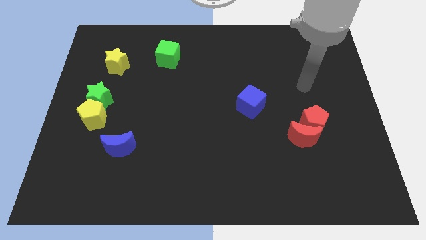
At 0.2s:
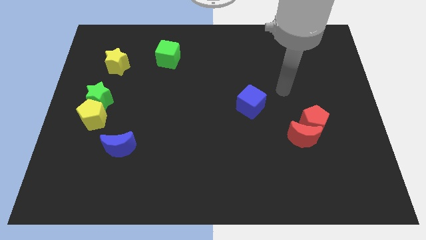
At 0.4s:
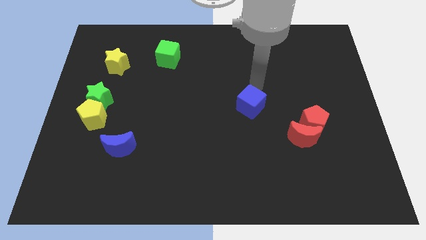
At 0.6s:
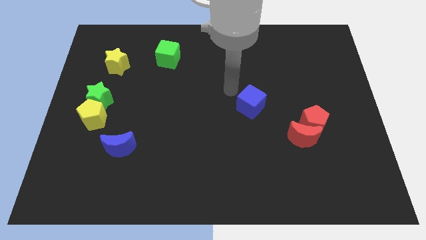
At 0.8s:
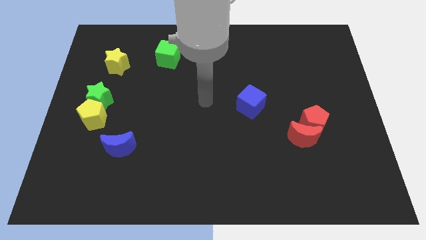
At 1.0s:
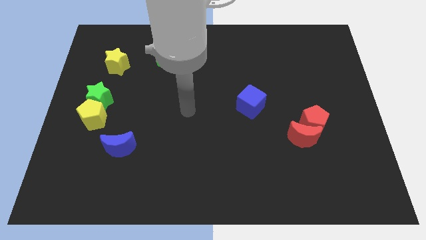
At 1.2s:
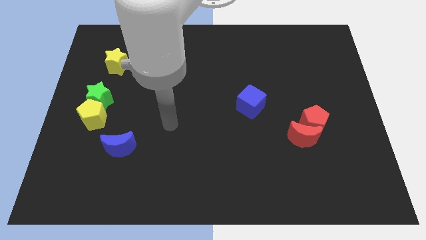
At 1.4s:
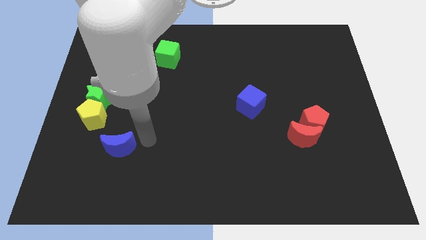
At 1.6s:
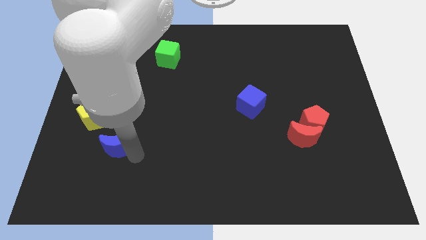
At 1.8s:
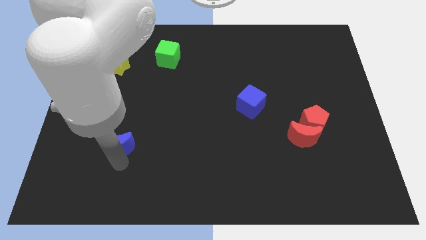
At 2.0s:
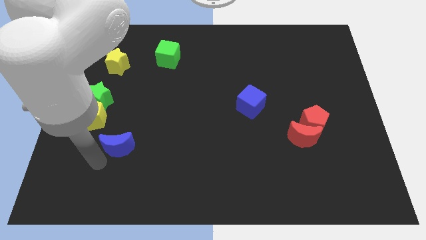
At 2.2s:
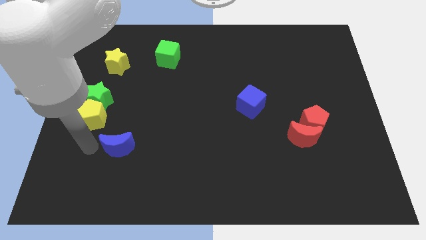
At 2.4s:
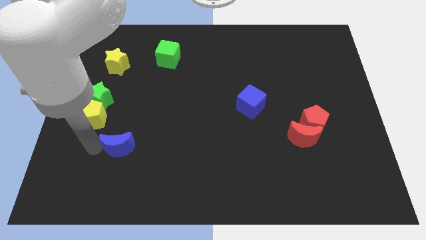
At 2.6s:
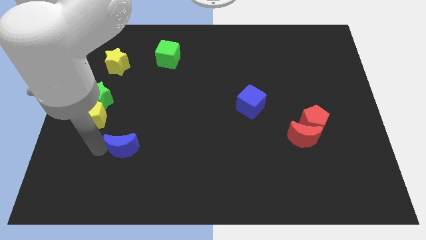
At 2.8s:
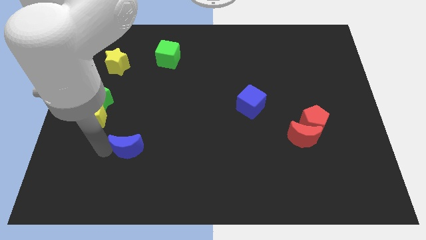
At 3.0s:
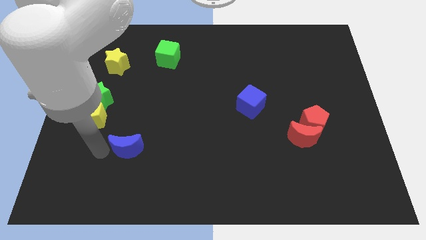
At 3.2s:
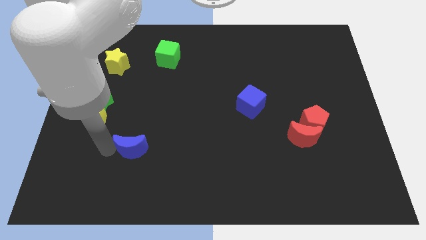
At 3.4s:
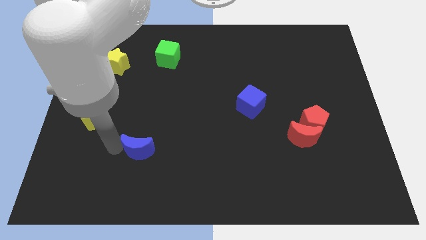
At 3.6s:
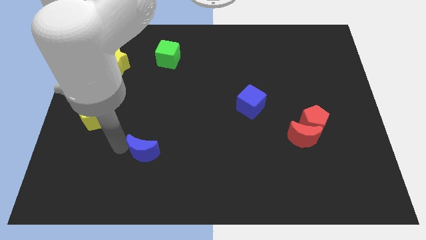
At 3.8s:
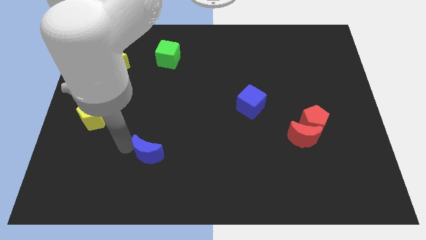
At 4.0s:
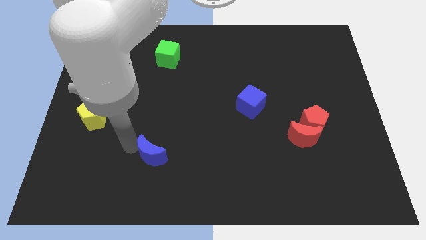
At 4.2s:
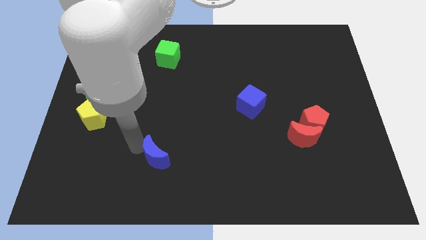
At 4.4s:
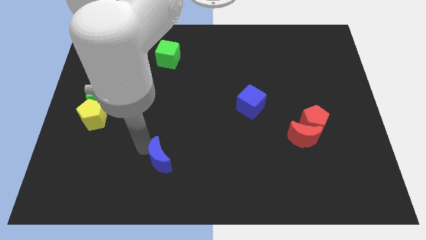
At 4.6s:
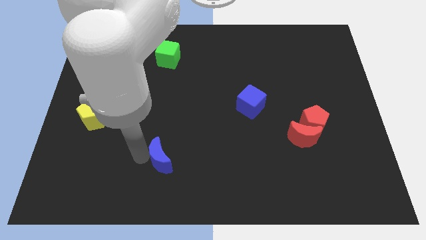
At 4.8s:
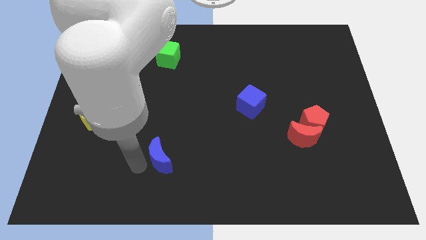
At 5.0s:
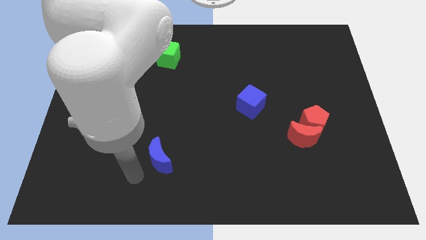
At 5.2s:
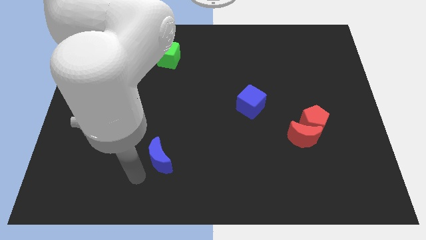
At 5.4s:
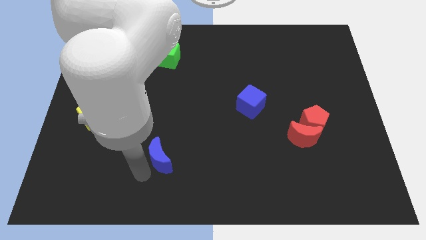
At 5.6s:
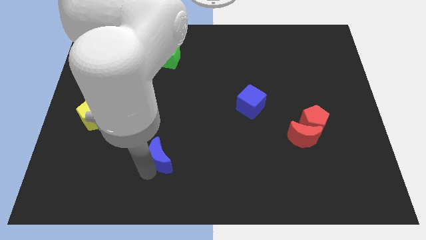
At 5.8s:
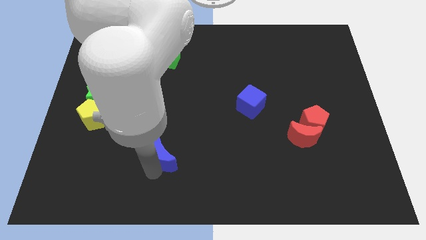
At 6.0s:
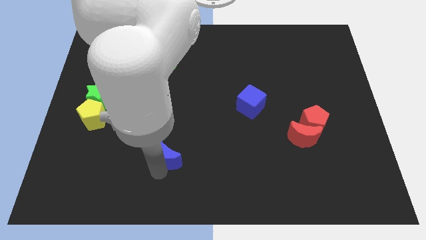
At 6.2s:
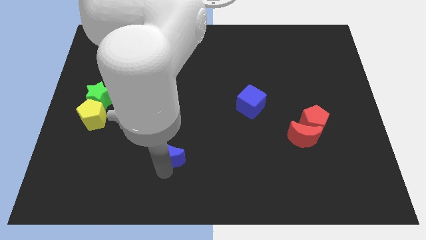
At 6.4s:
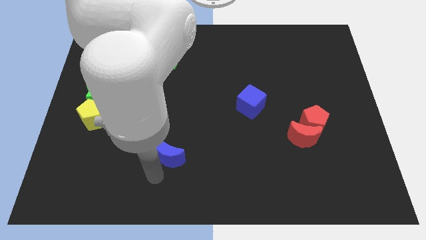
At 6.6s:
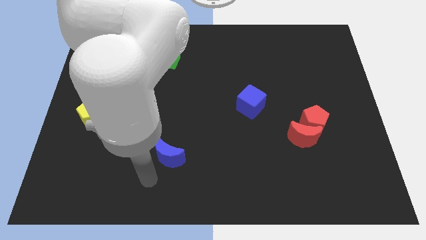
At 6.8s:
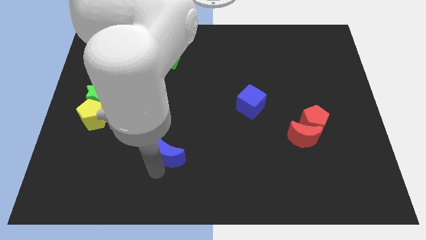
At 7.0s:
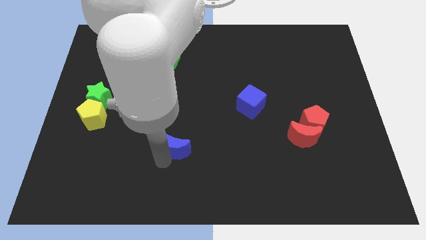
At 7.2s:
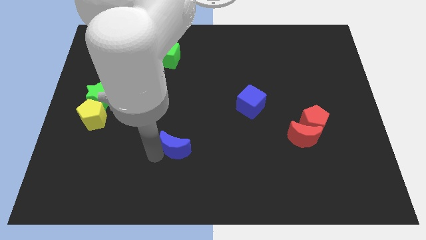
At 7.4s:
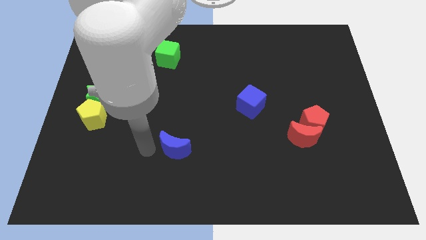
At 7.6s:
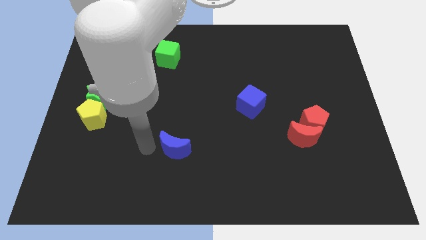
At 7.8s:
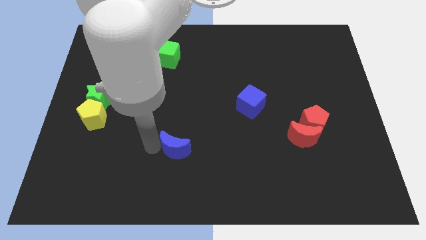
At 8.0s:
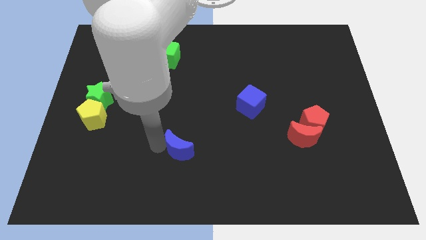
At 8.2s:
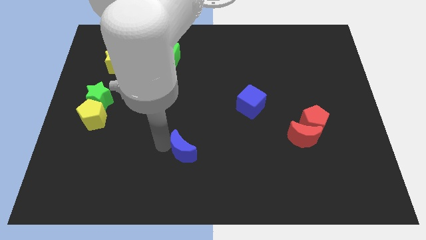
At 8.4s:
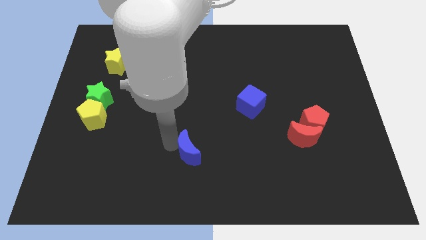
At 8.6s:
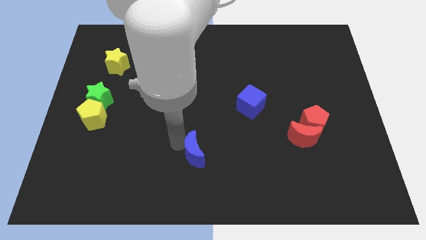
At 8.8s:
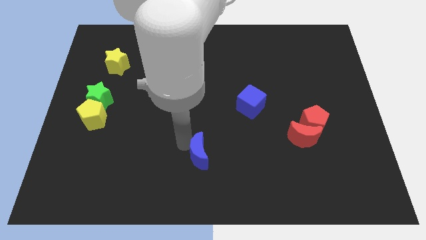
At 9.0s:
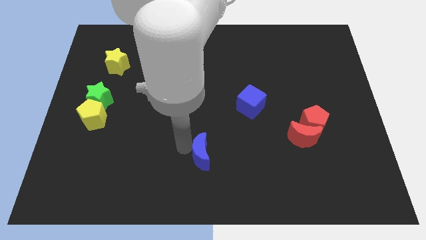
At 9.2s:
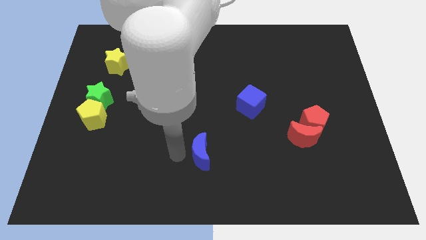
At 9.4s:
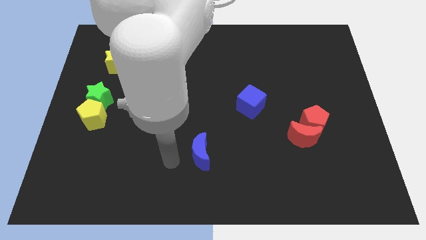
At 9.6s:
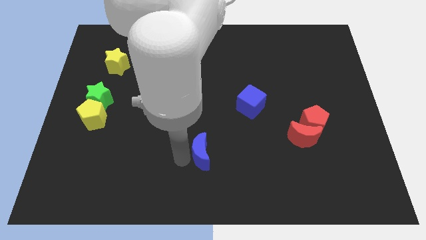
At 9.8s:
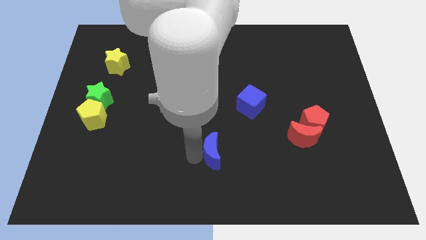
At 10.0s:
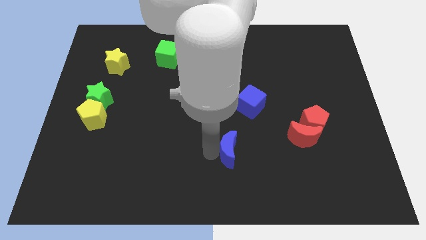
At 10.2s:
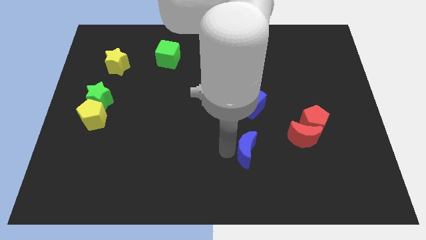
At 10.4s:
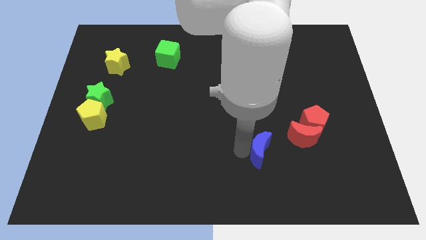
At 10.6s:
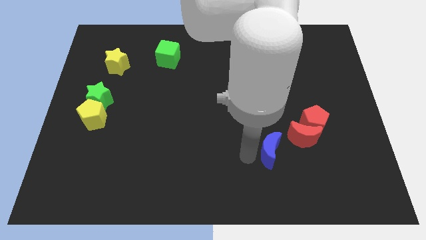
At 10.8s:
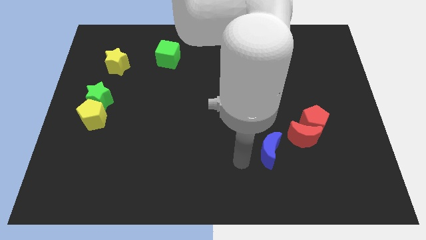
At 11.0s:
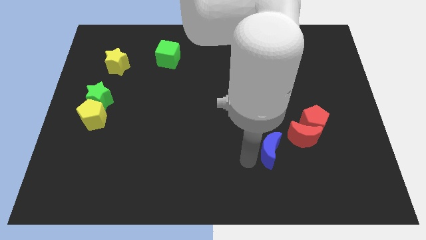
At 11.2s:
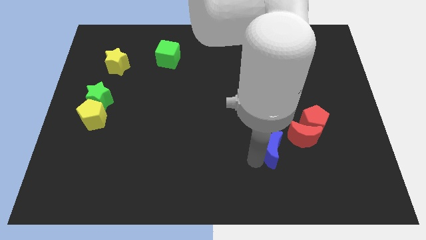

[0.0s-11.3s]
move the blue moon to the bottom left side of the red pentagon

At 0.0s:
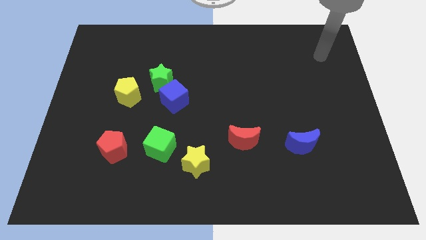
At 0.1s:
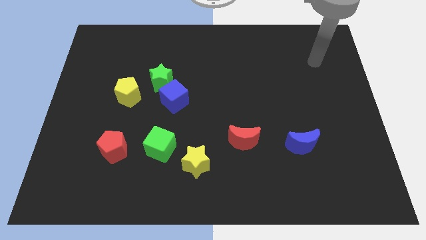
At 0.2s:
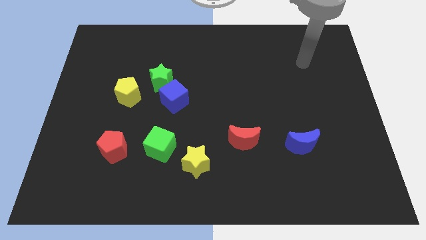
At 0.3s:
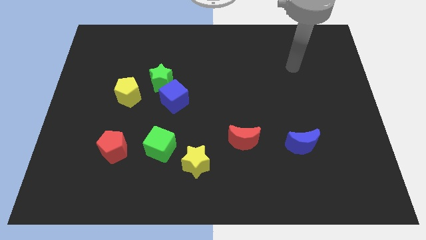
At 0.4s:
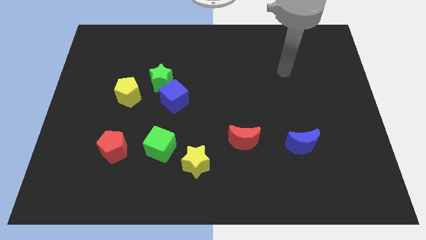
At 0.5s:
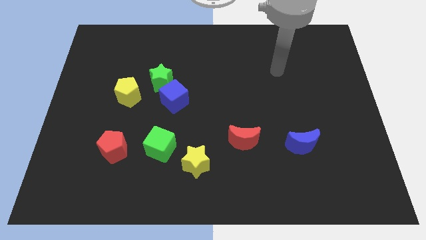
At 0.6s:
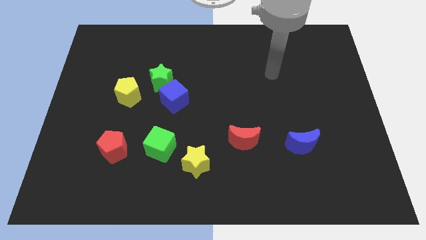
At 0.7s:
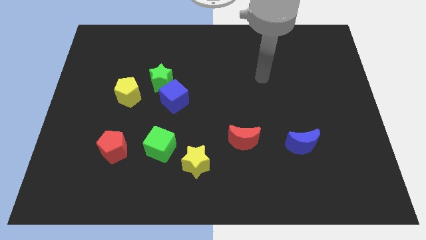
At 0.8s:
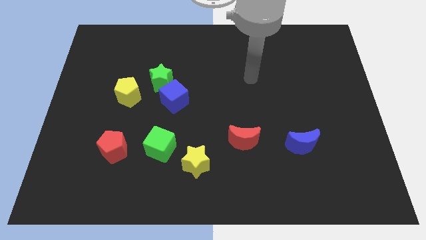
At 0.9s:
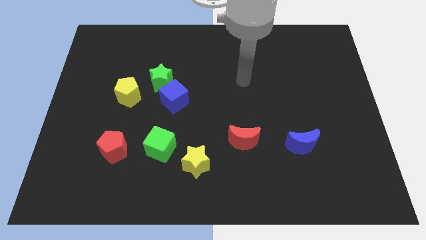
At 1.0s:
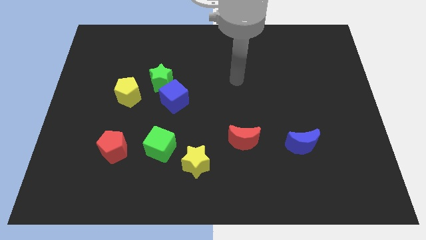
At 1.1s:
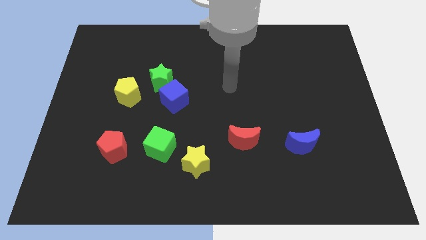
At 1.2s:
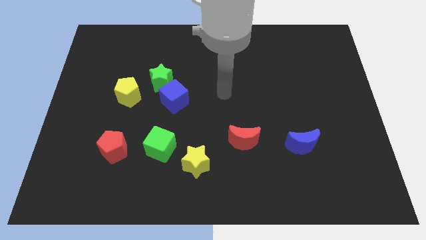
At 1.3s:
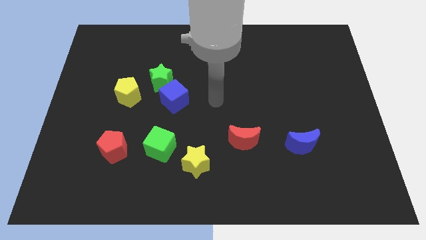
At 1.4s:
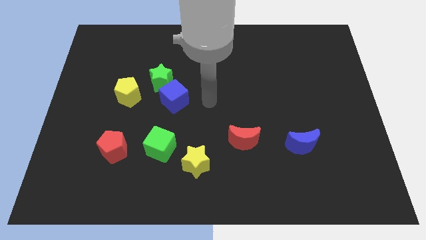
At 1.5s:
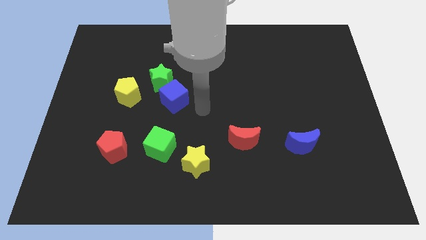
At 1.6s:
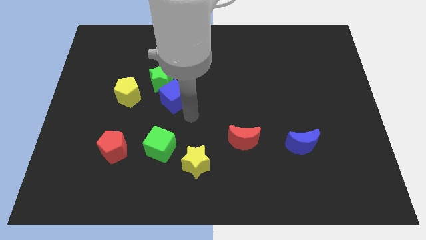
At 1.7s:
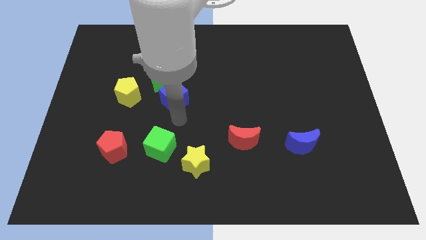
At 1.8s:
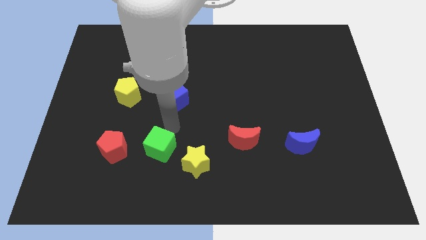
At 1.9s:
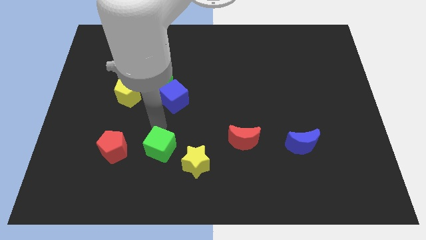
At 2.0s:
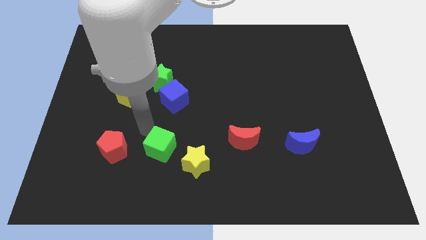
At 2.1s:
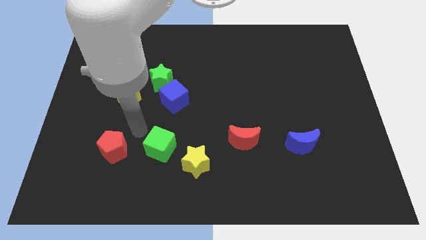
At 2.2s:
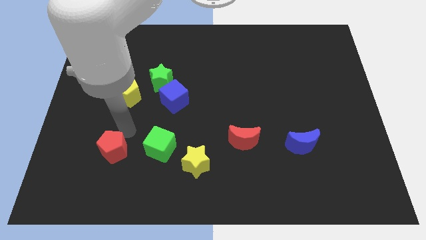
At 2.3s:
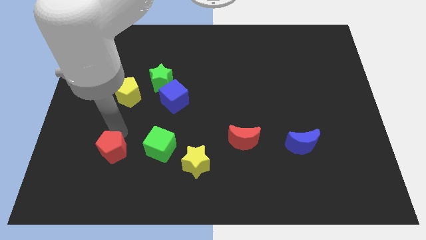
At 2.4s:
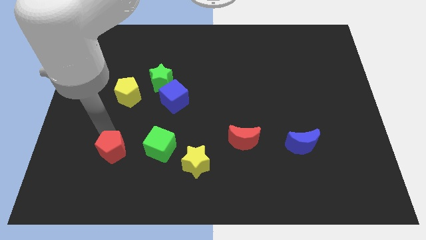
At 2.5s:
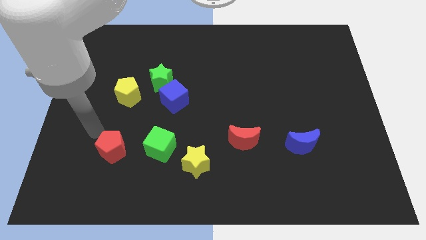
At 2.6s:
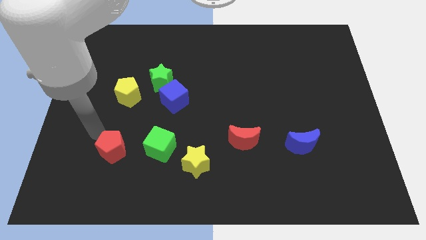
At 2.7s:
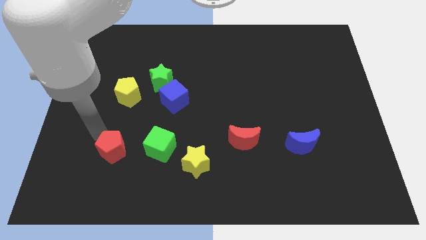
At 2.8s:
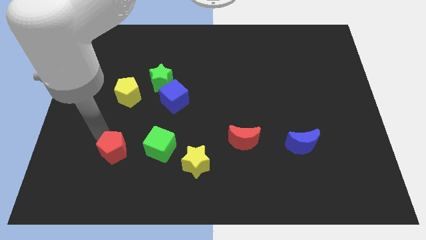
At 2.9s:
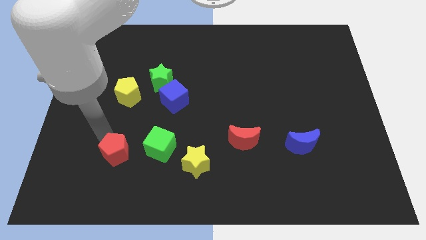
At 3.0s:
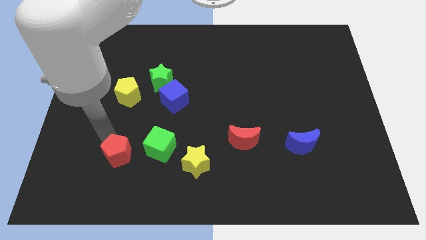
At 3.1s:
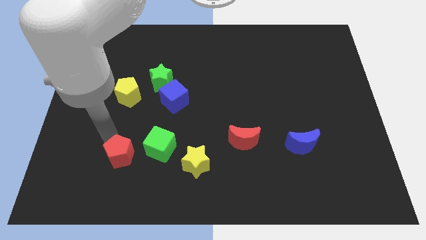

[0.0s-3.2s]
slide the red pentagon to the bottom left of the green cube
